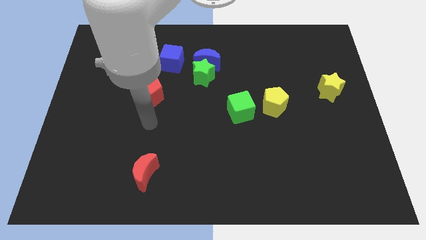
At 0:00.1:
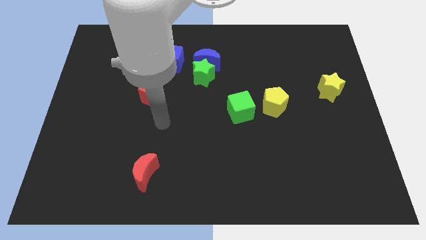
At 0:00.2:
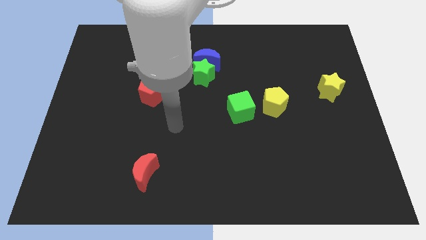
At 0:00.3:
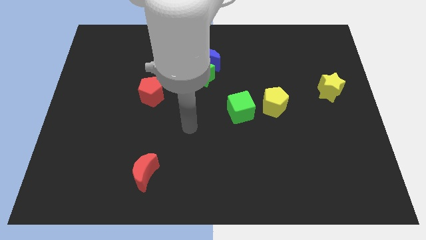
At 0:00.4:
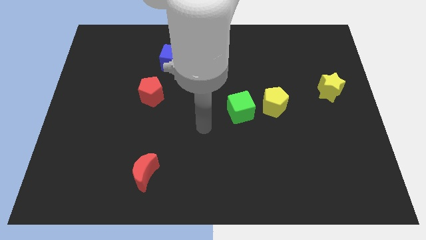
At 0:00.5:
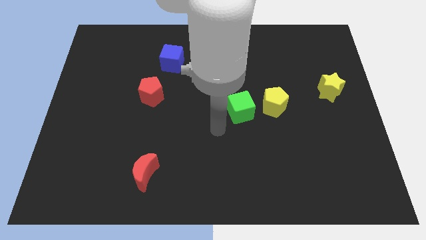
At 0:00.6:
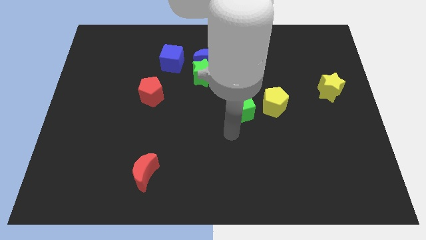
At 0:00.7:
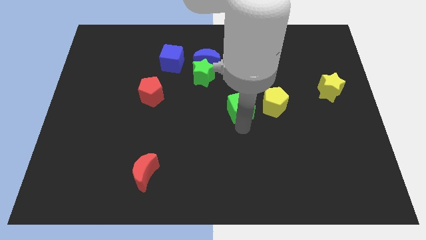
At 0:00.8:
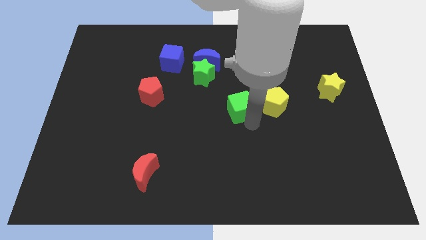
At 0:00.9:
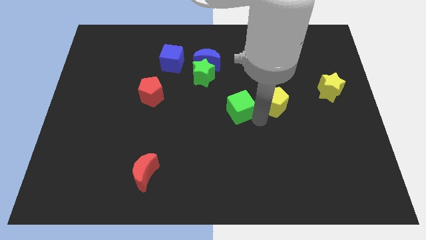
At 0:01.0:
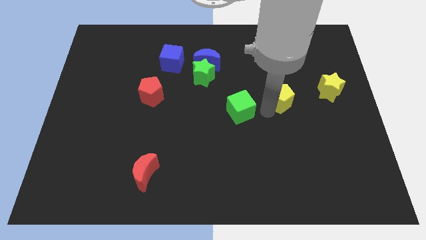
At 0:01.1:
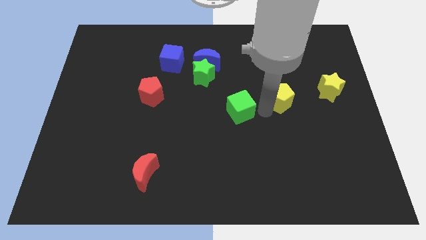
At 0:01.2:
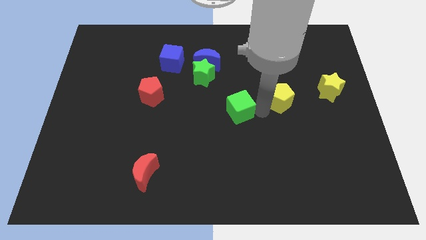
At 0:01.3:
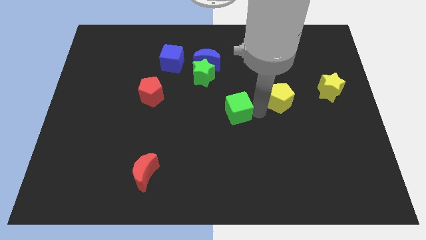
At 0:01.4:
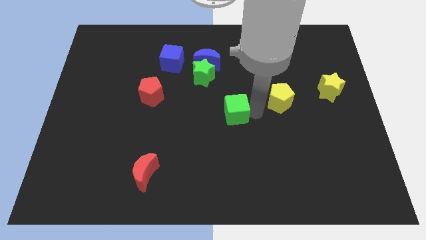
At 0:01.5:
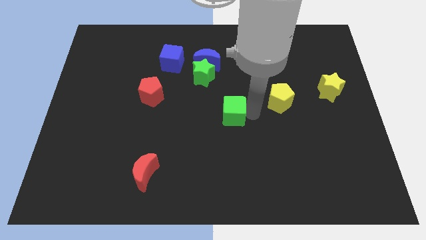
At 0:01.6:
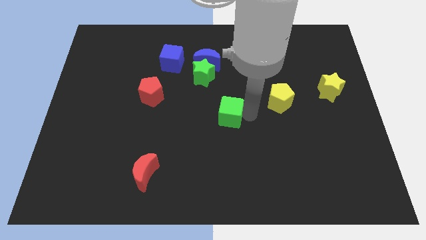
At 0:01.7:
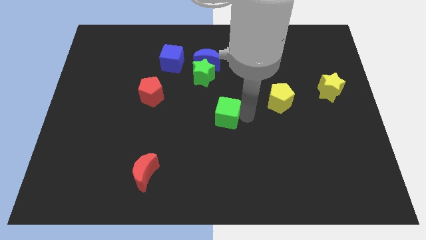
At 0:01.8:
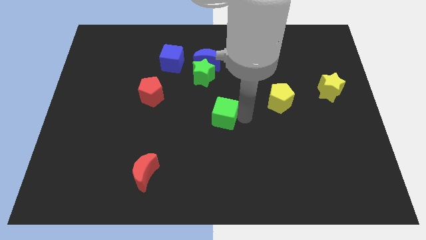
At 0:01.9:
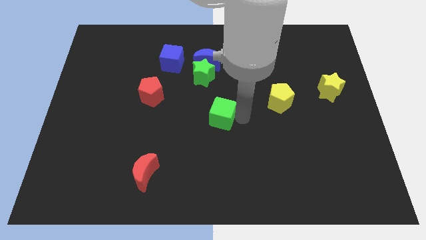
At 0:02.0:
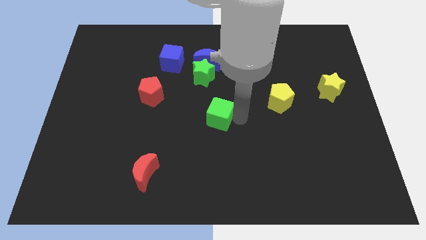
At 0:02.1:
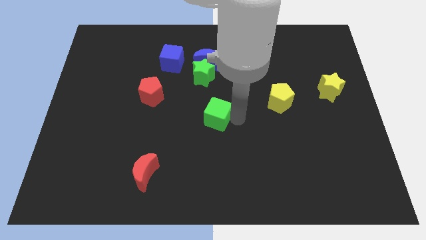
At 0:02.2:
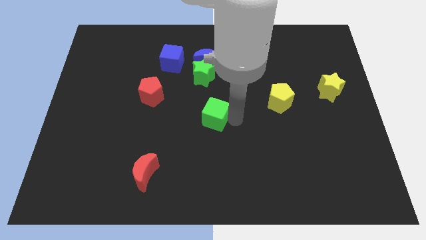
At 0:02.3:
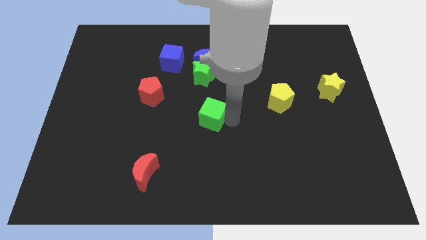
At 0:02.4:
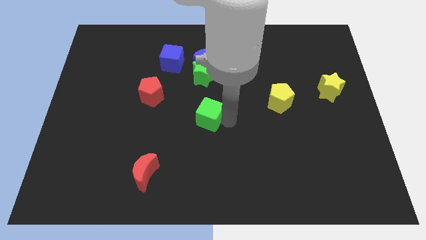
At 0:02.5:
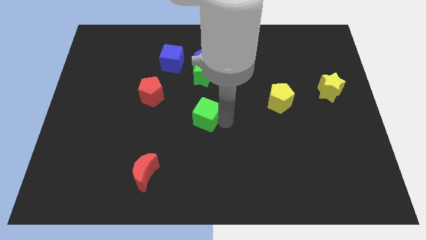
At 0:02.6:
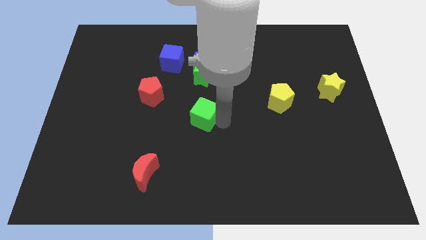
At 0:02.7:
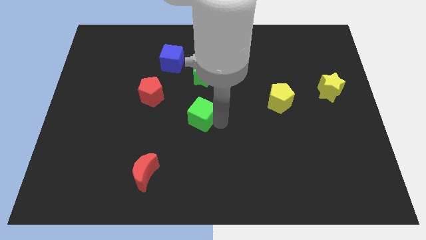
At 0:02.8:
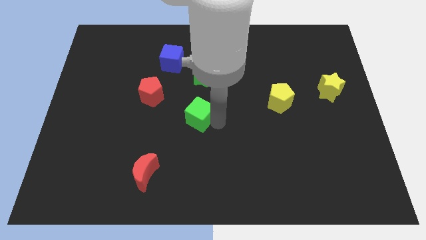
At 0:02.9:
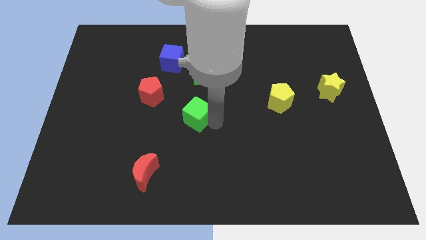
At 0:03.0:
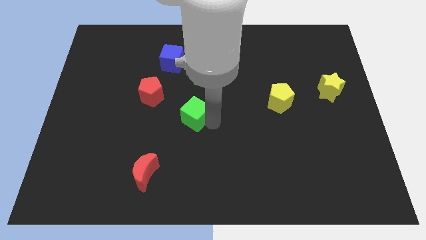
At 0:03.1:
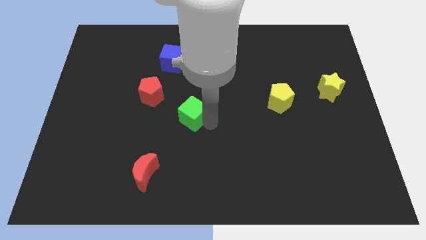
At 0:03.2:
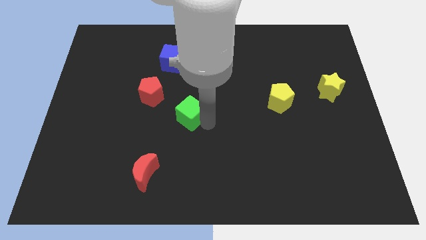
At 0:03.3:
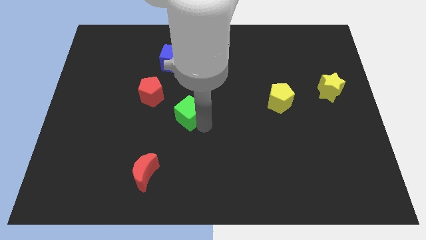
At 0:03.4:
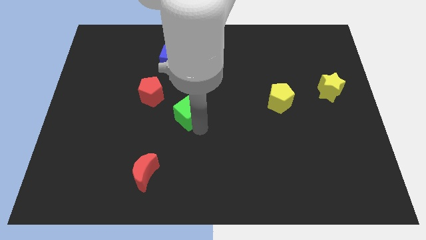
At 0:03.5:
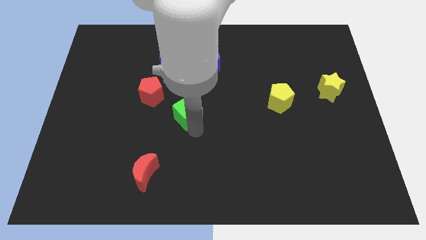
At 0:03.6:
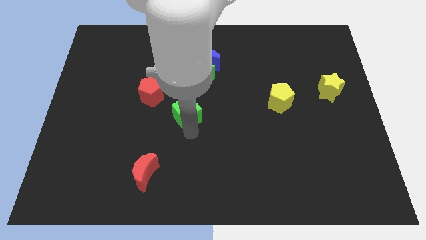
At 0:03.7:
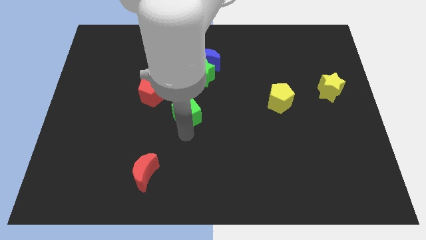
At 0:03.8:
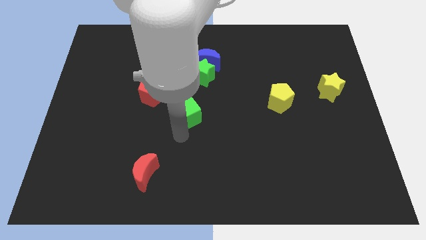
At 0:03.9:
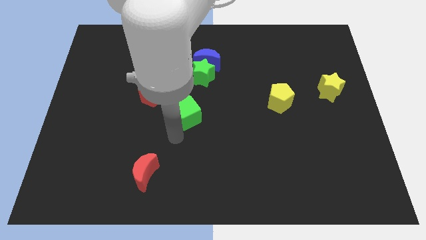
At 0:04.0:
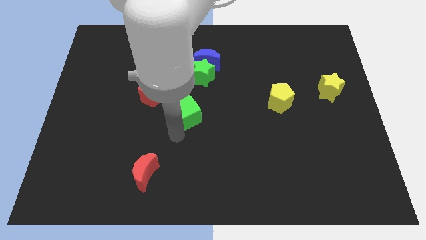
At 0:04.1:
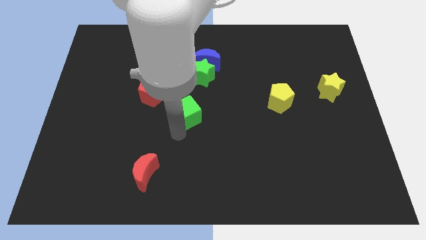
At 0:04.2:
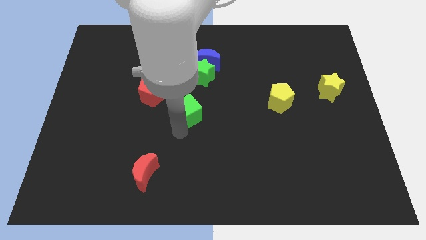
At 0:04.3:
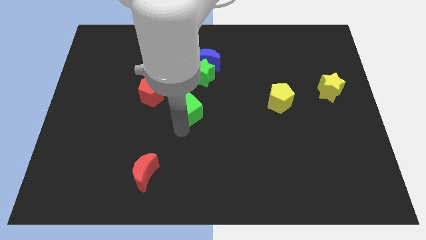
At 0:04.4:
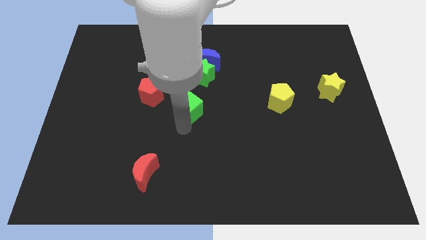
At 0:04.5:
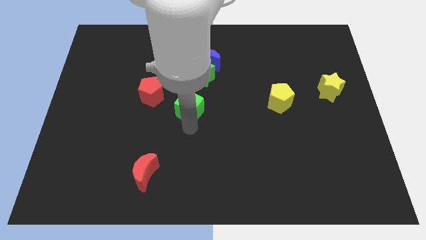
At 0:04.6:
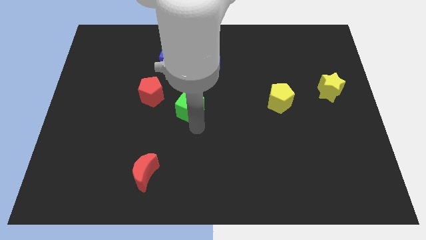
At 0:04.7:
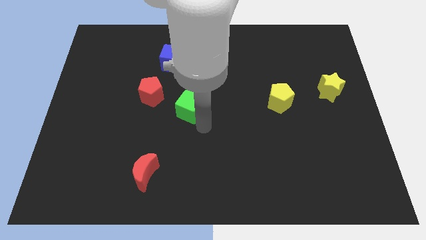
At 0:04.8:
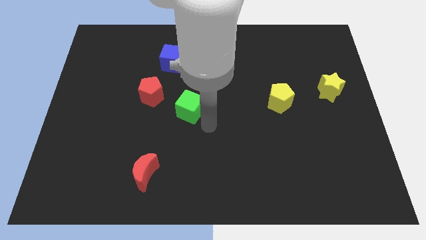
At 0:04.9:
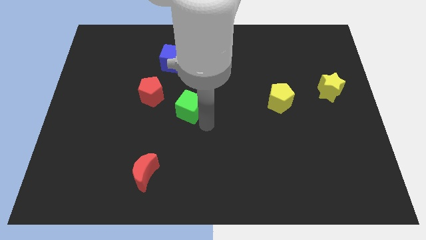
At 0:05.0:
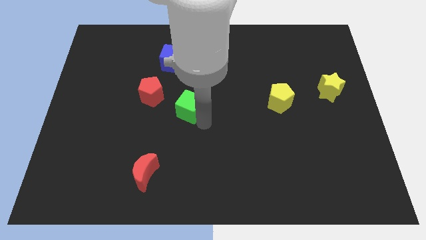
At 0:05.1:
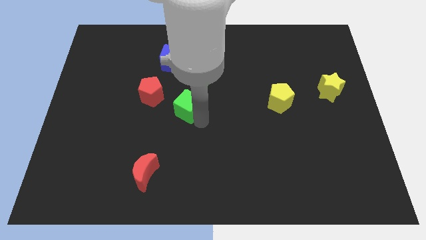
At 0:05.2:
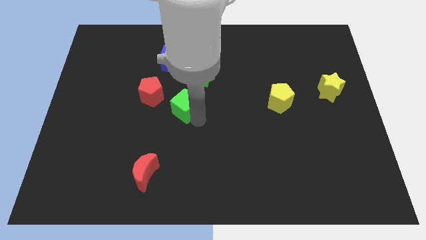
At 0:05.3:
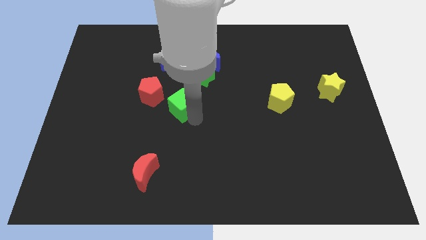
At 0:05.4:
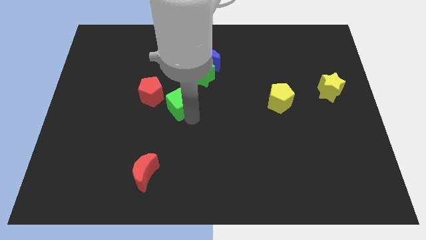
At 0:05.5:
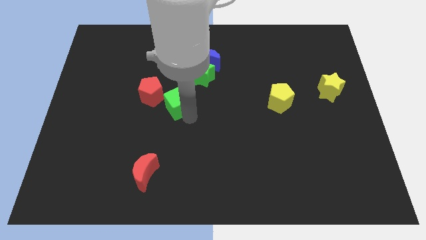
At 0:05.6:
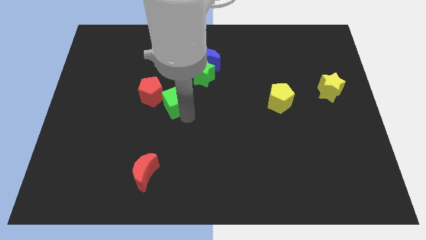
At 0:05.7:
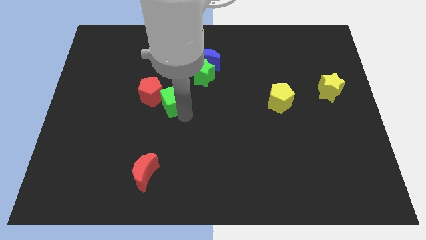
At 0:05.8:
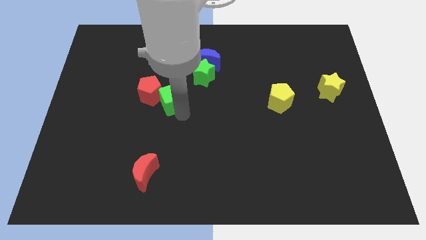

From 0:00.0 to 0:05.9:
slide the green cube close to the red pentagon

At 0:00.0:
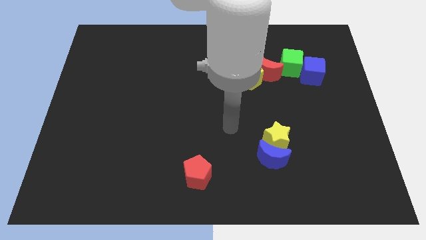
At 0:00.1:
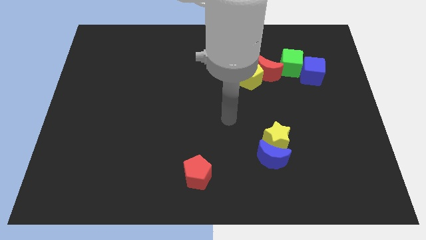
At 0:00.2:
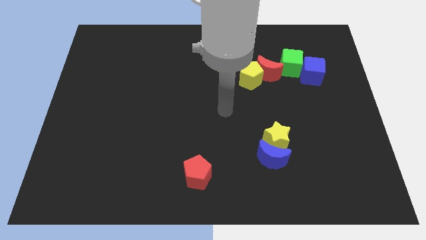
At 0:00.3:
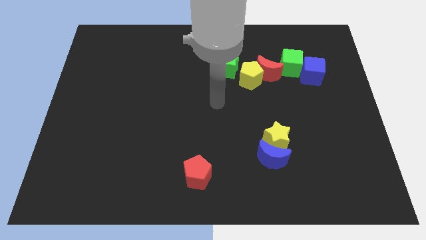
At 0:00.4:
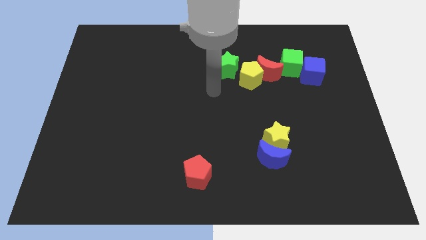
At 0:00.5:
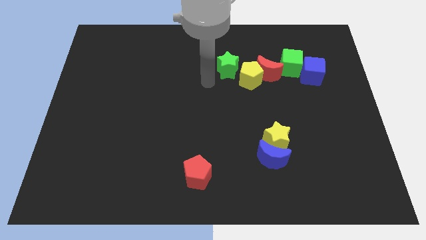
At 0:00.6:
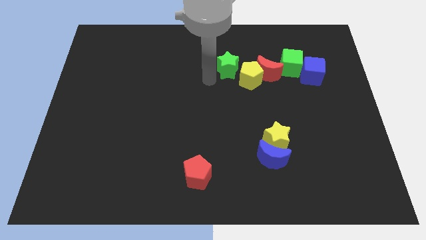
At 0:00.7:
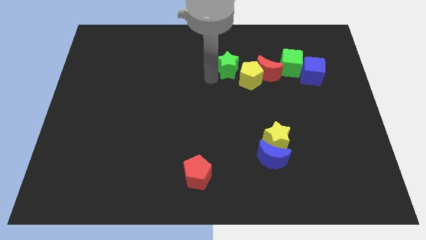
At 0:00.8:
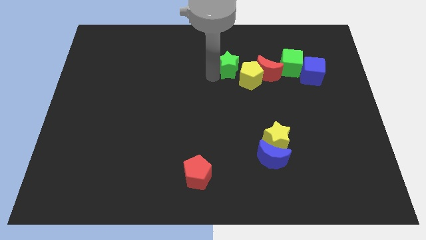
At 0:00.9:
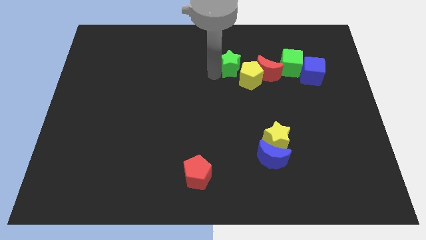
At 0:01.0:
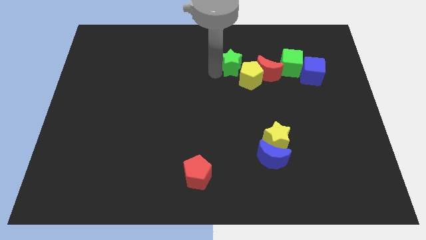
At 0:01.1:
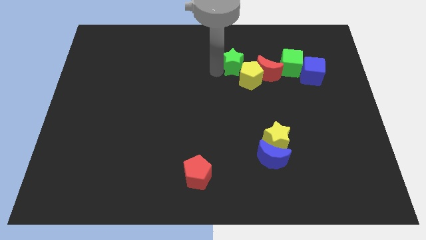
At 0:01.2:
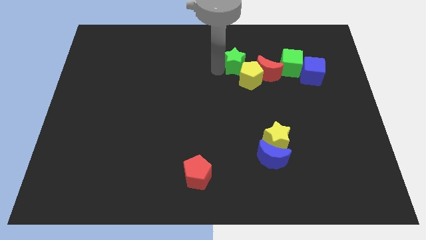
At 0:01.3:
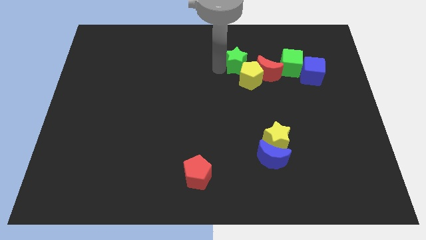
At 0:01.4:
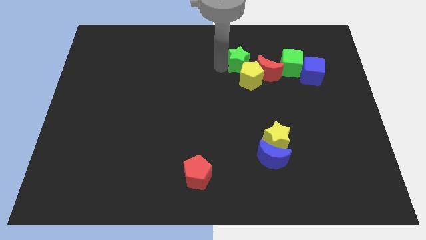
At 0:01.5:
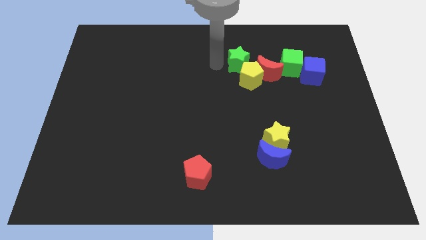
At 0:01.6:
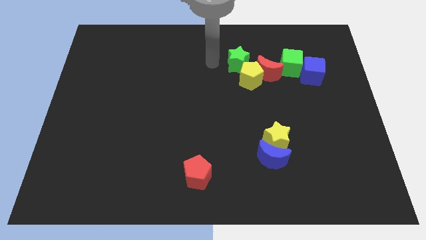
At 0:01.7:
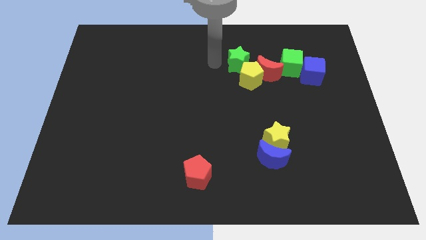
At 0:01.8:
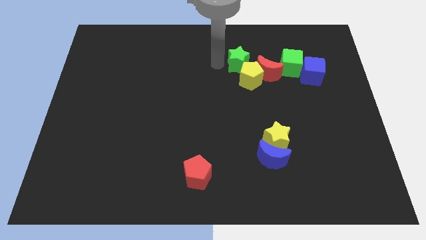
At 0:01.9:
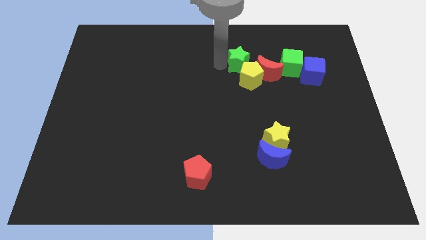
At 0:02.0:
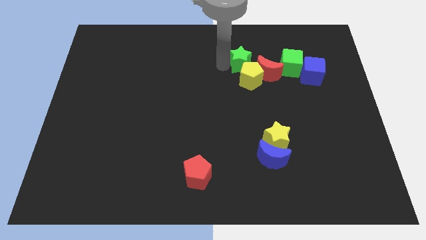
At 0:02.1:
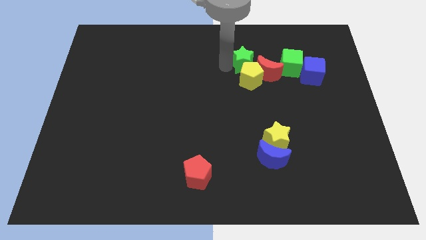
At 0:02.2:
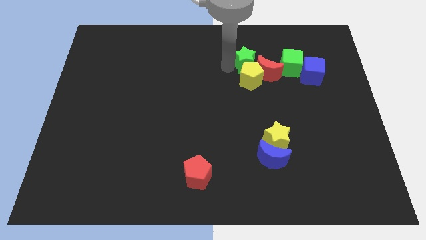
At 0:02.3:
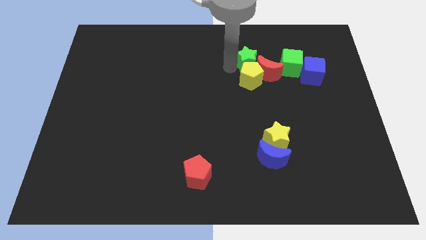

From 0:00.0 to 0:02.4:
push the green star to the red moon
